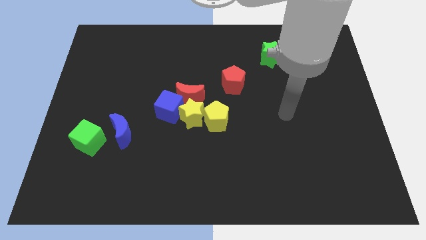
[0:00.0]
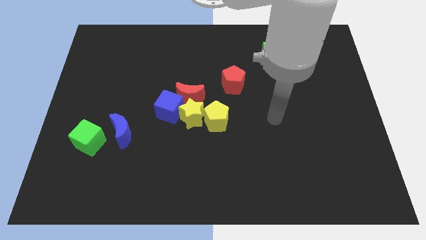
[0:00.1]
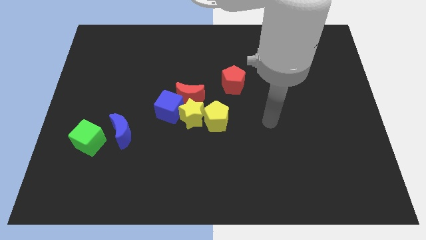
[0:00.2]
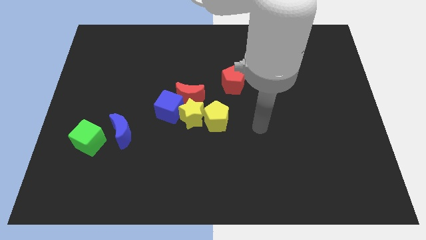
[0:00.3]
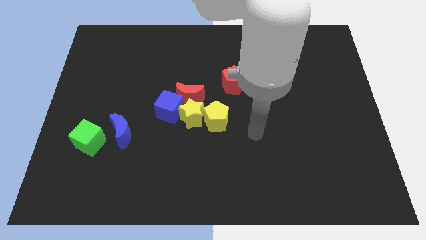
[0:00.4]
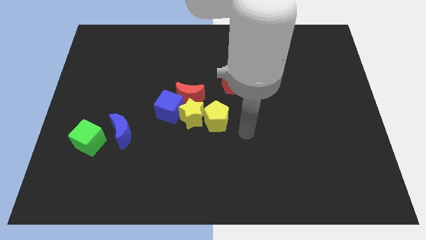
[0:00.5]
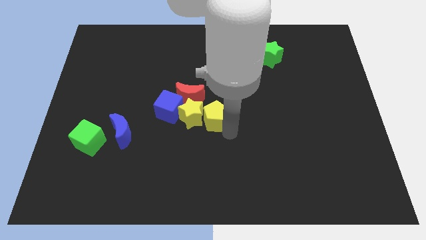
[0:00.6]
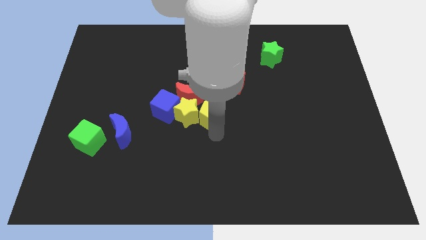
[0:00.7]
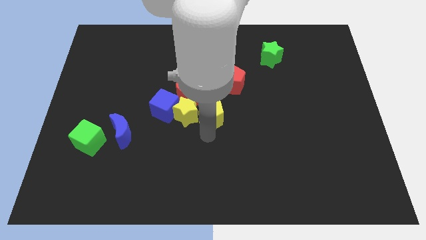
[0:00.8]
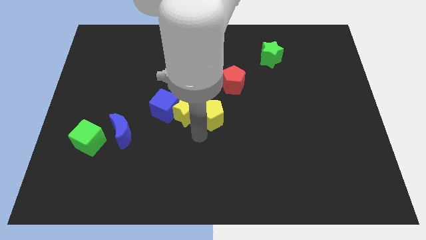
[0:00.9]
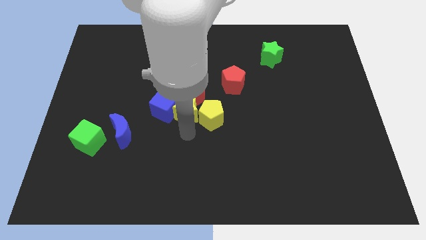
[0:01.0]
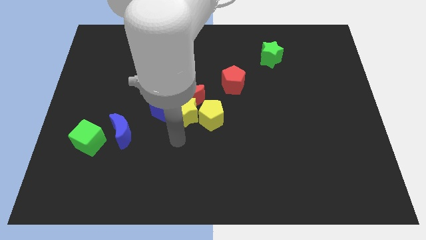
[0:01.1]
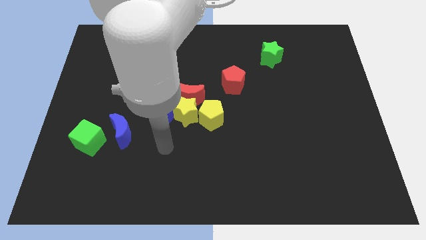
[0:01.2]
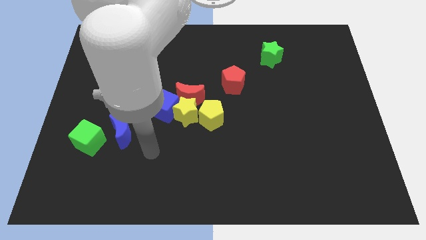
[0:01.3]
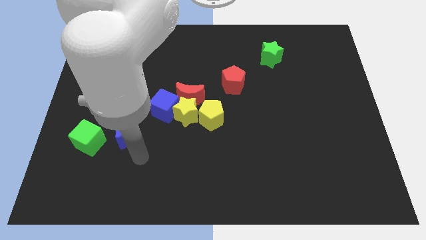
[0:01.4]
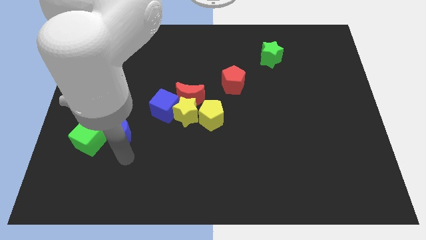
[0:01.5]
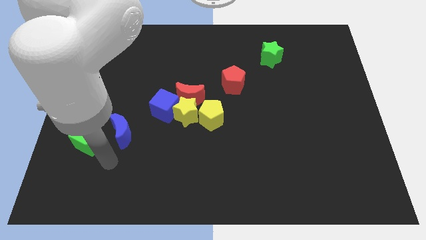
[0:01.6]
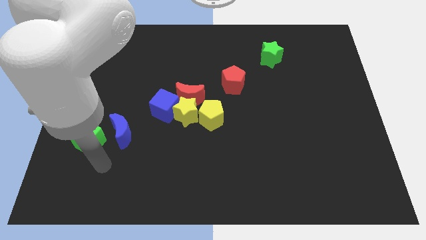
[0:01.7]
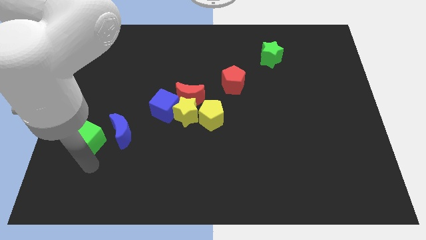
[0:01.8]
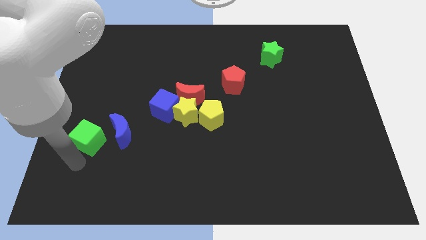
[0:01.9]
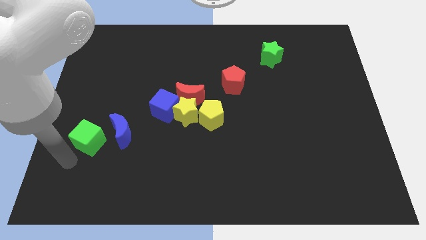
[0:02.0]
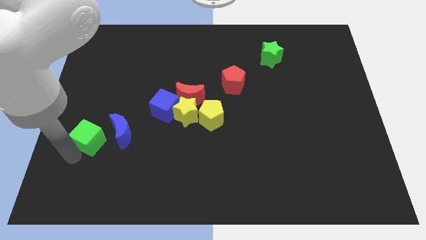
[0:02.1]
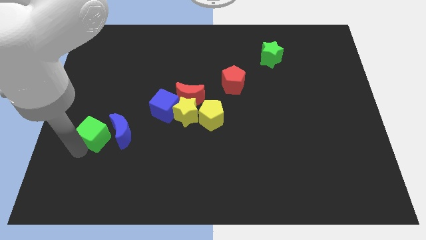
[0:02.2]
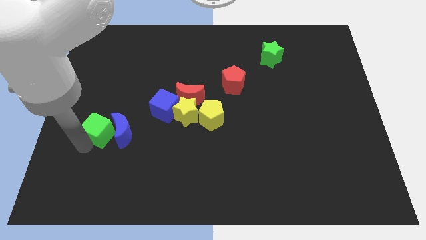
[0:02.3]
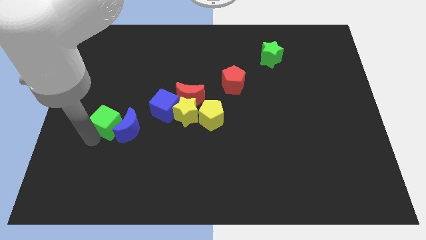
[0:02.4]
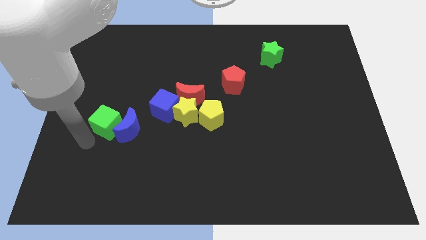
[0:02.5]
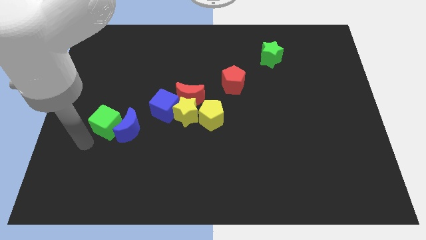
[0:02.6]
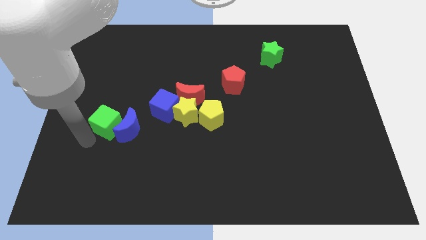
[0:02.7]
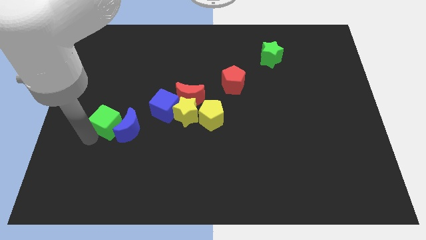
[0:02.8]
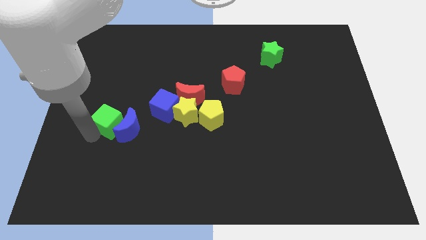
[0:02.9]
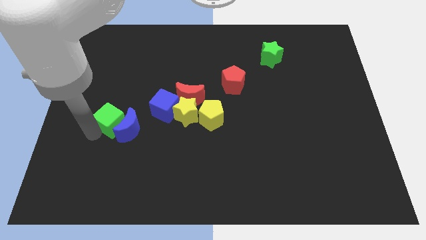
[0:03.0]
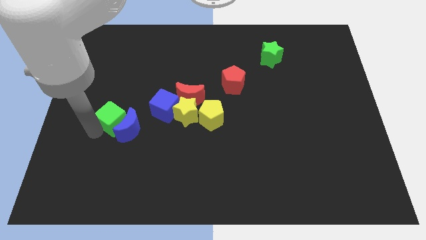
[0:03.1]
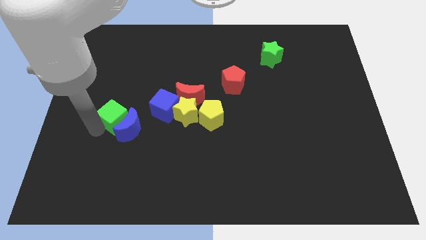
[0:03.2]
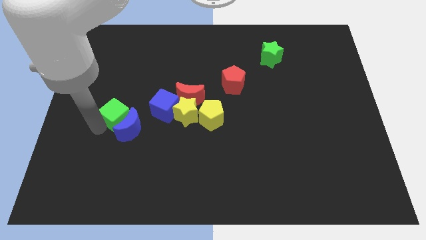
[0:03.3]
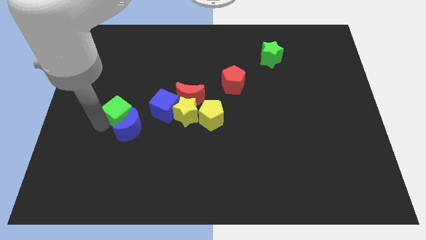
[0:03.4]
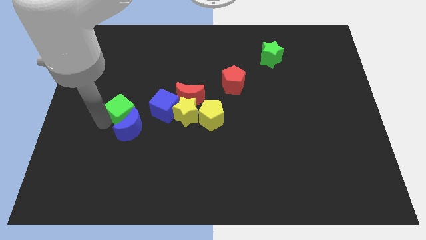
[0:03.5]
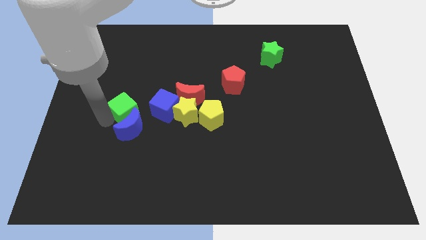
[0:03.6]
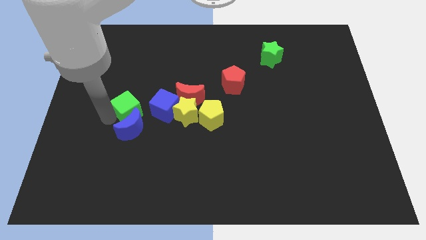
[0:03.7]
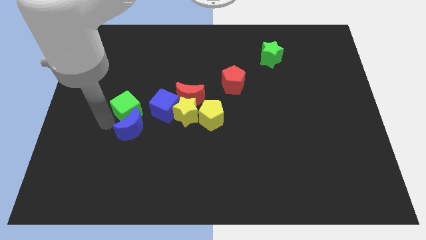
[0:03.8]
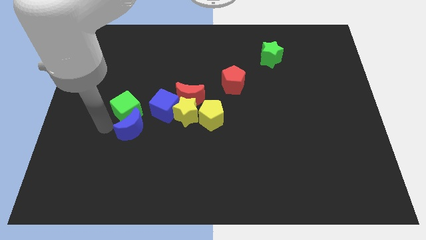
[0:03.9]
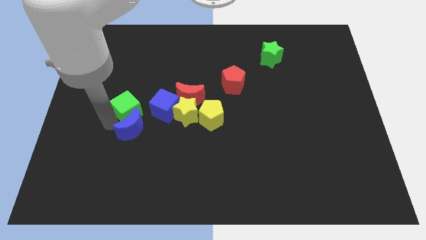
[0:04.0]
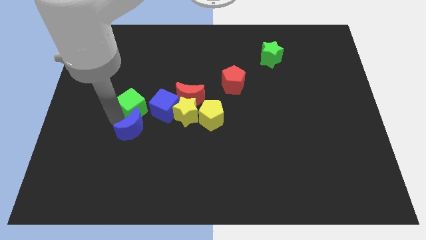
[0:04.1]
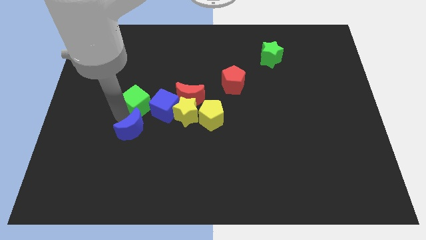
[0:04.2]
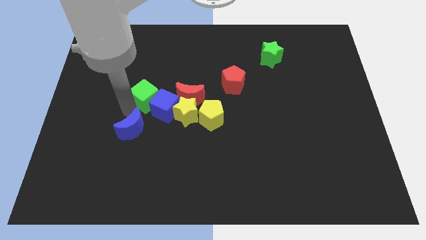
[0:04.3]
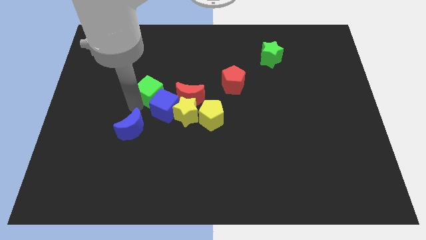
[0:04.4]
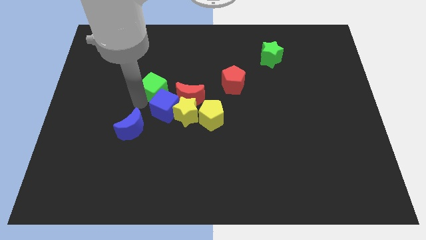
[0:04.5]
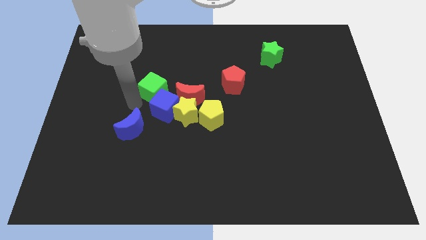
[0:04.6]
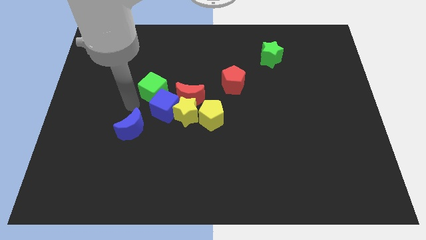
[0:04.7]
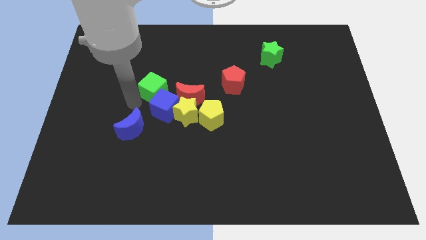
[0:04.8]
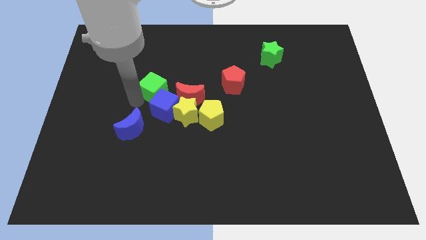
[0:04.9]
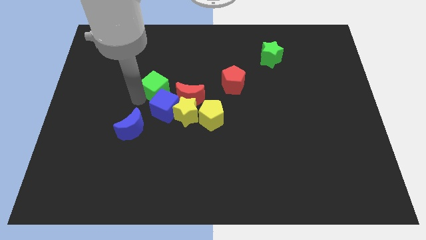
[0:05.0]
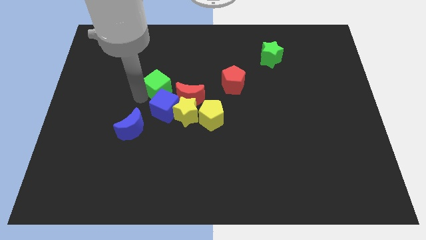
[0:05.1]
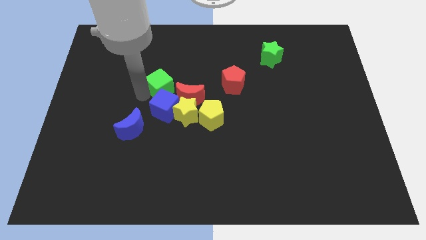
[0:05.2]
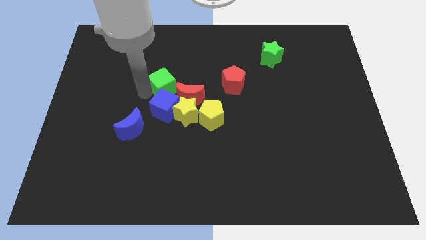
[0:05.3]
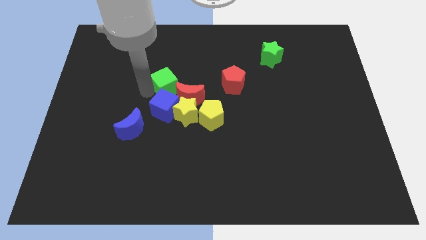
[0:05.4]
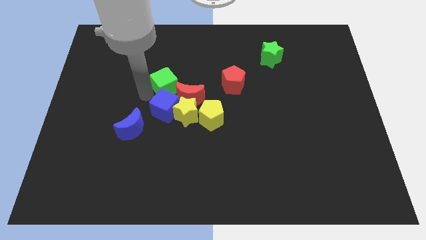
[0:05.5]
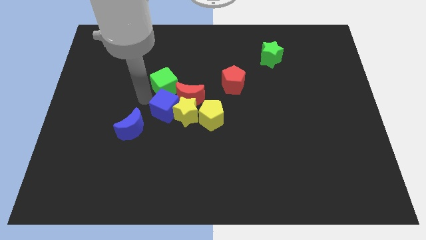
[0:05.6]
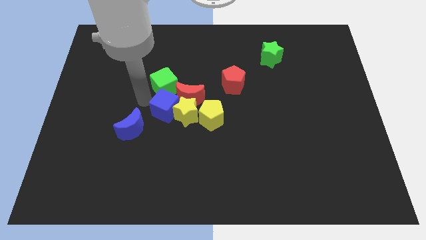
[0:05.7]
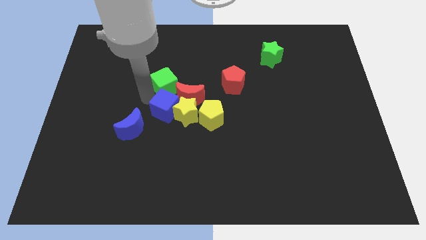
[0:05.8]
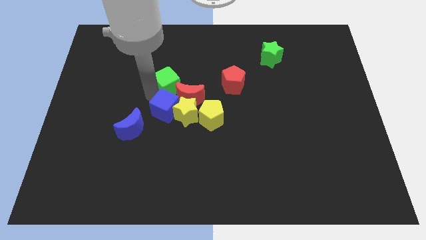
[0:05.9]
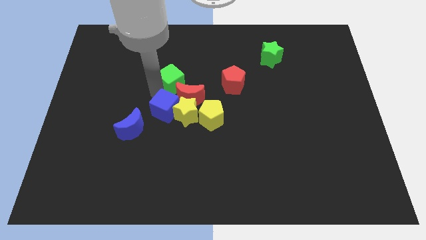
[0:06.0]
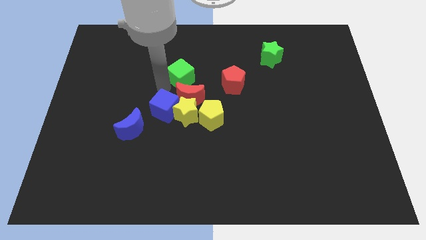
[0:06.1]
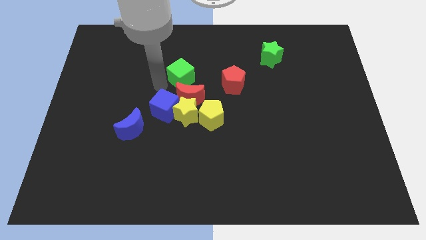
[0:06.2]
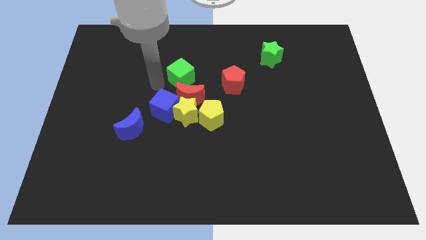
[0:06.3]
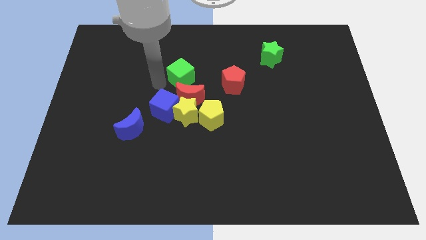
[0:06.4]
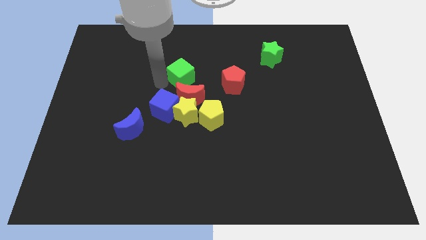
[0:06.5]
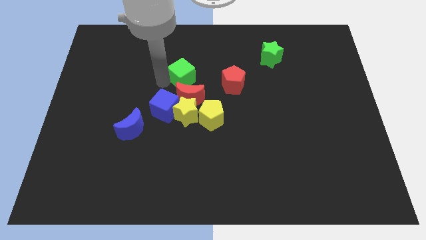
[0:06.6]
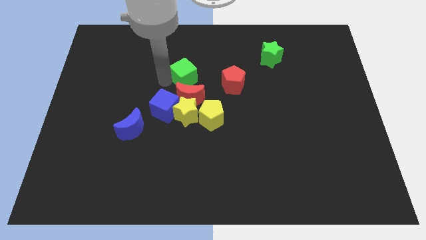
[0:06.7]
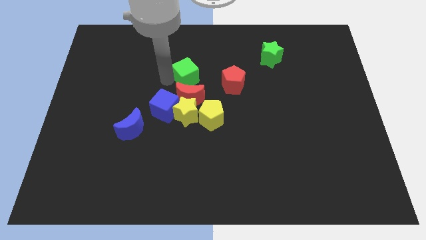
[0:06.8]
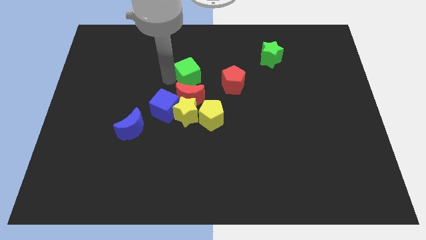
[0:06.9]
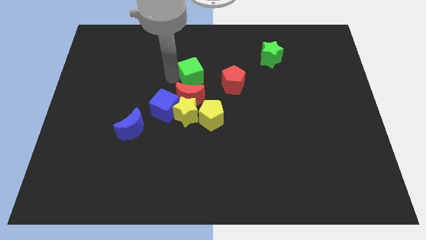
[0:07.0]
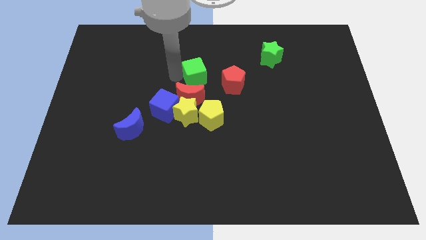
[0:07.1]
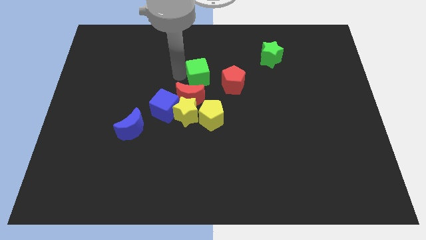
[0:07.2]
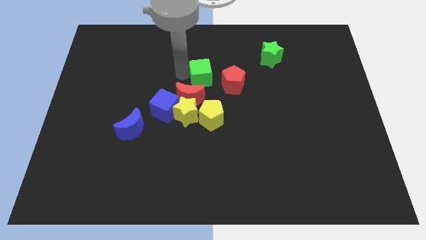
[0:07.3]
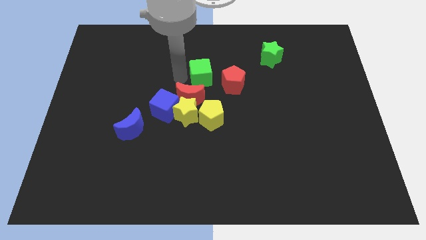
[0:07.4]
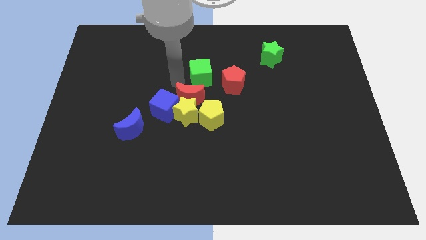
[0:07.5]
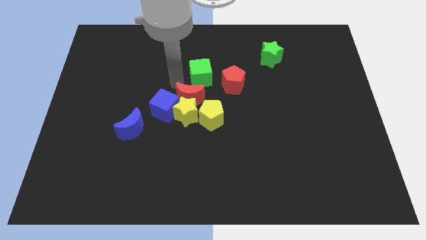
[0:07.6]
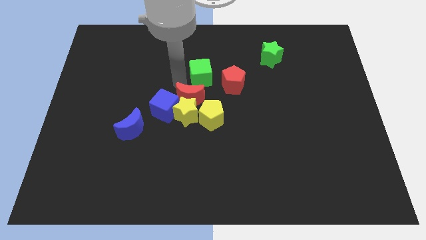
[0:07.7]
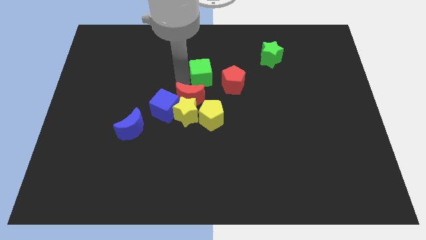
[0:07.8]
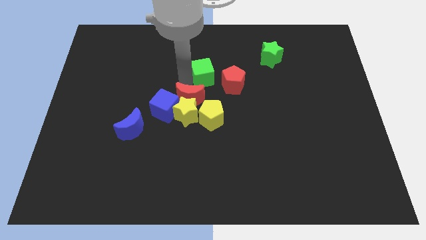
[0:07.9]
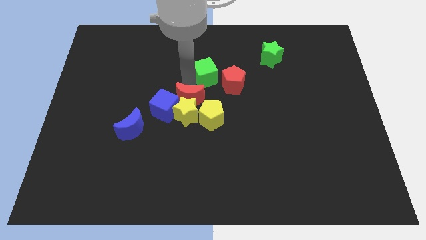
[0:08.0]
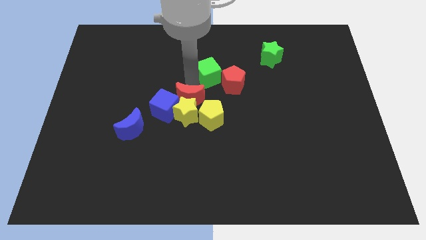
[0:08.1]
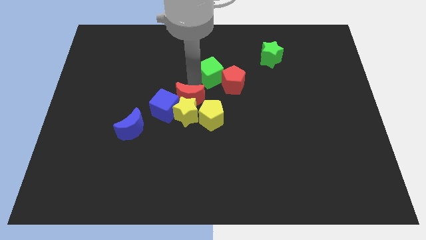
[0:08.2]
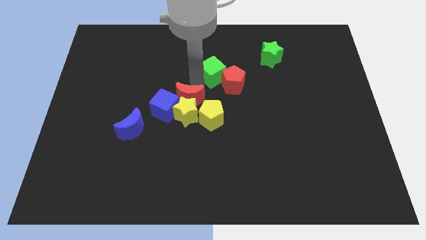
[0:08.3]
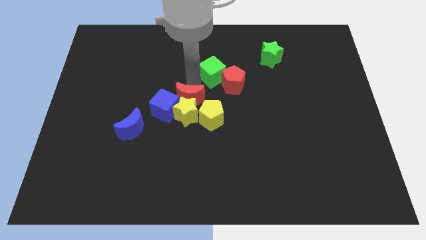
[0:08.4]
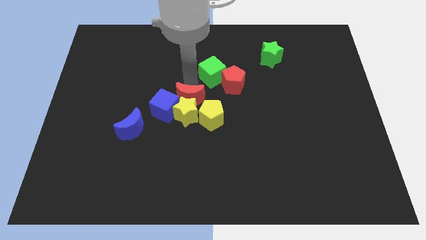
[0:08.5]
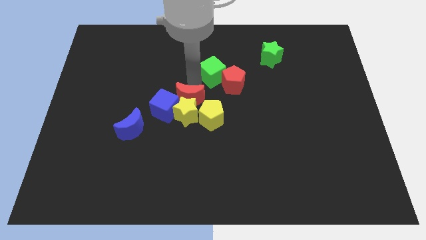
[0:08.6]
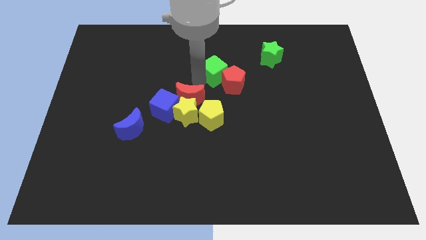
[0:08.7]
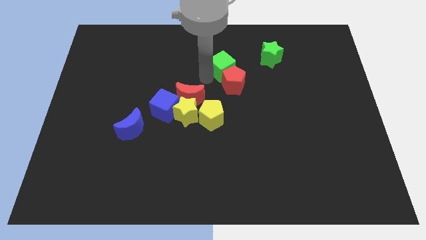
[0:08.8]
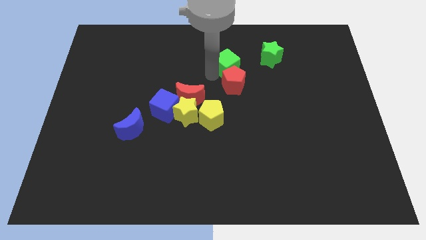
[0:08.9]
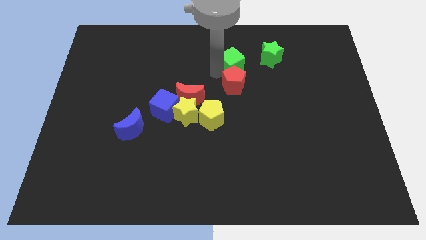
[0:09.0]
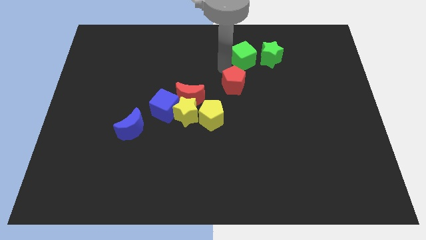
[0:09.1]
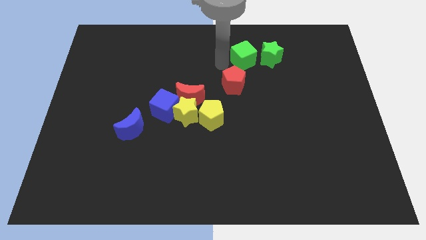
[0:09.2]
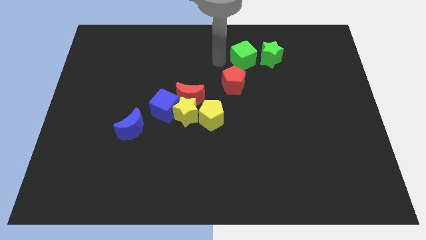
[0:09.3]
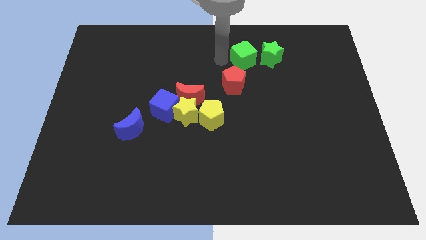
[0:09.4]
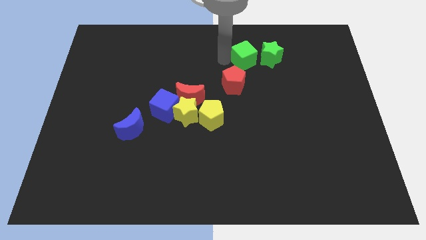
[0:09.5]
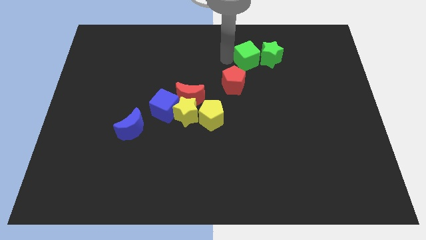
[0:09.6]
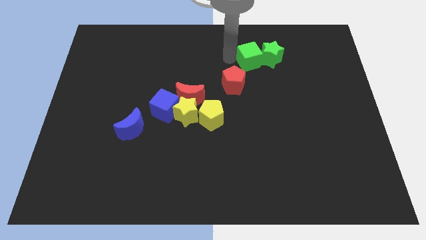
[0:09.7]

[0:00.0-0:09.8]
put the green cube to the green star
